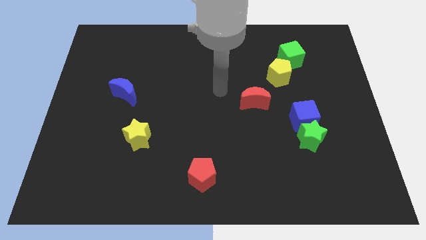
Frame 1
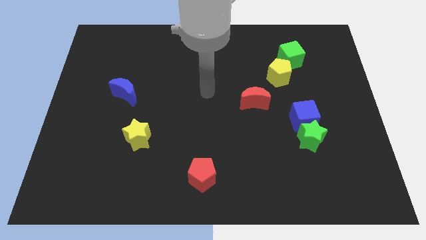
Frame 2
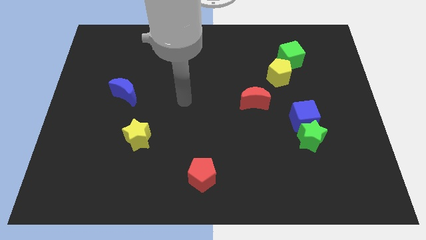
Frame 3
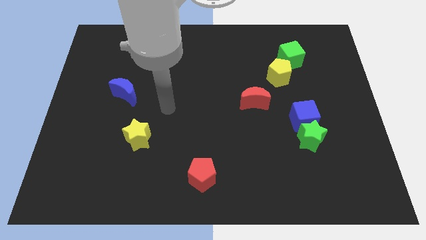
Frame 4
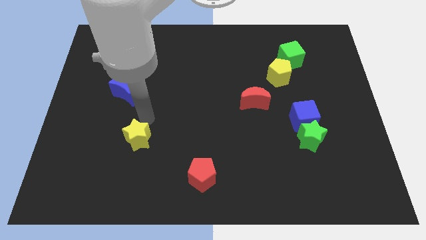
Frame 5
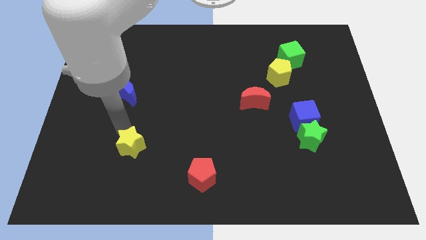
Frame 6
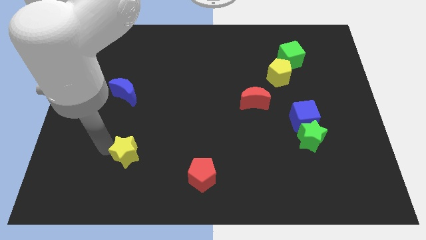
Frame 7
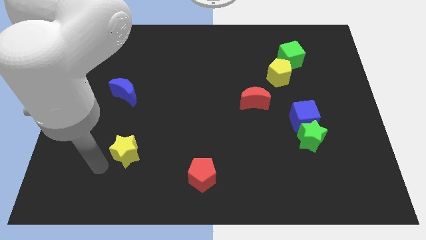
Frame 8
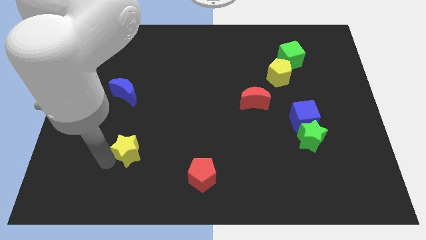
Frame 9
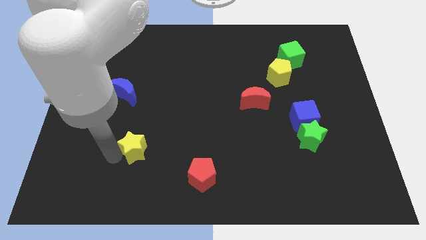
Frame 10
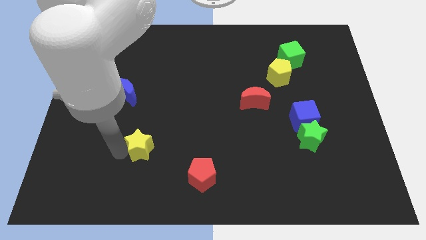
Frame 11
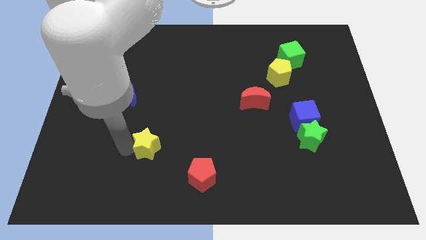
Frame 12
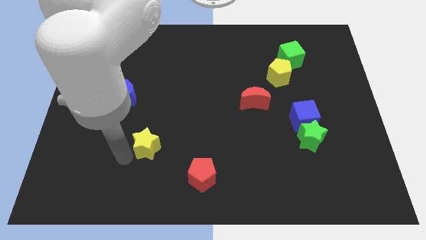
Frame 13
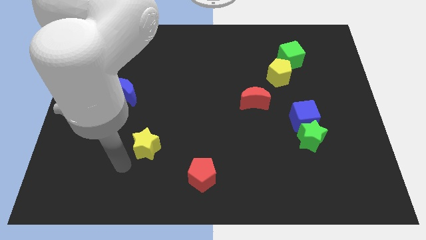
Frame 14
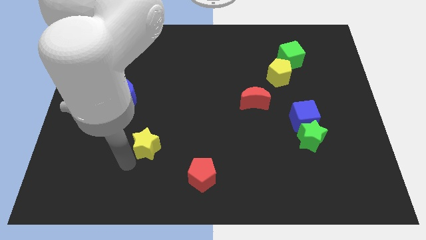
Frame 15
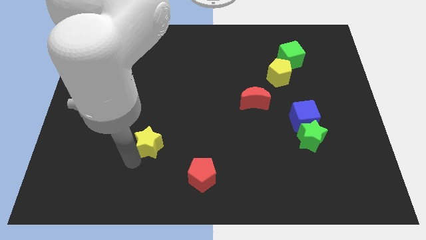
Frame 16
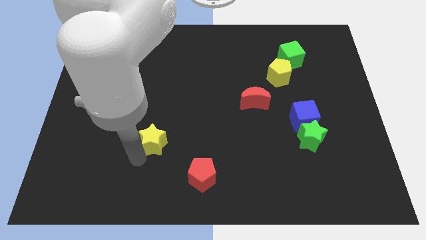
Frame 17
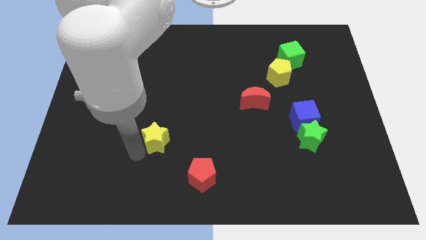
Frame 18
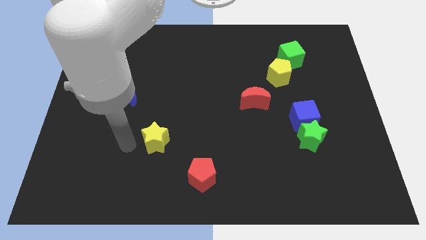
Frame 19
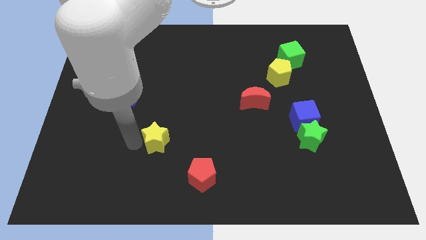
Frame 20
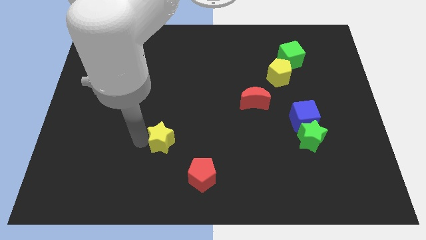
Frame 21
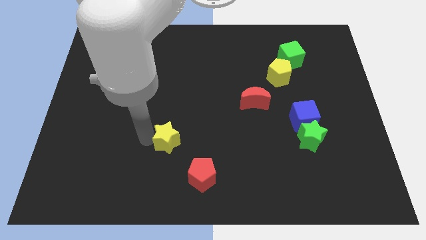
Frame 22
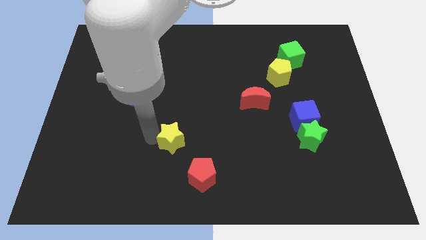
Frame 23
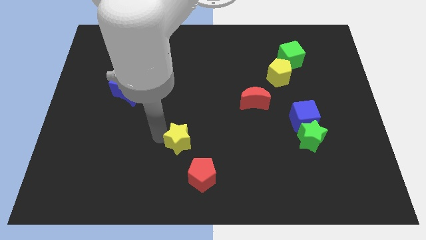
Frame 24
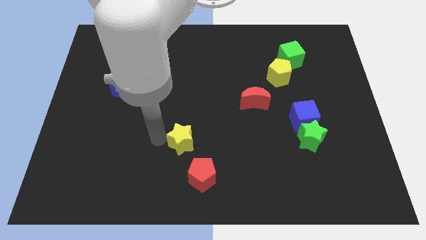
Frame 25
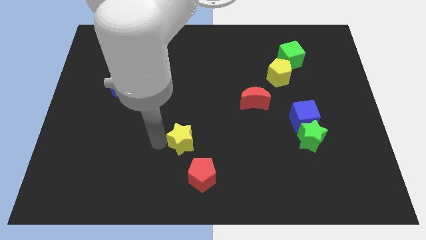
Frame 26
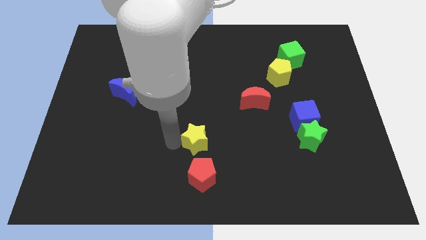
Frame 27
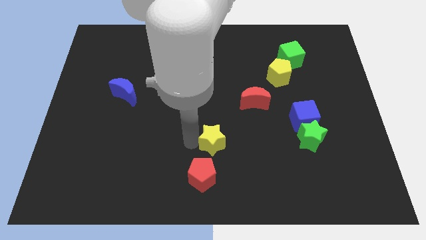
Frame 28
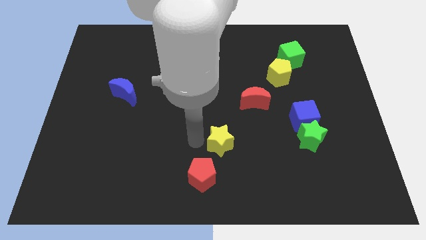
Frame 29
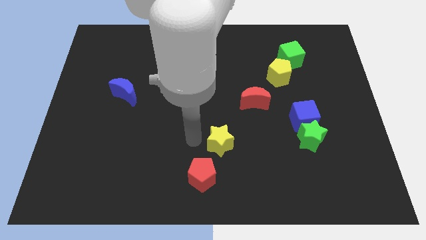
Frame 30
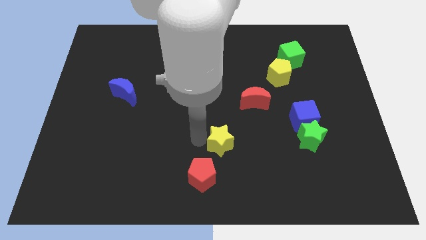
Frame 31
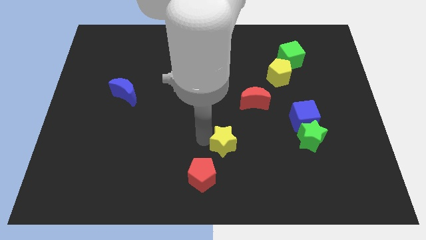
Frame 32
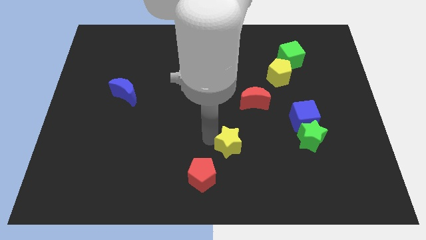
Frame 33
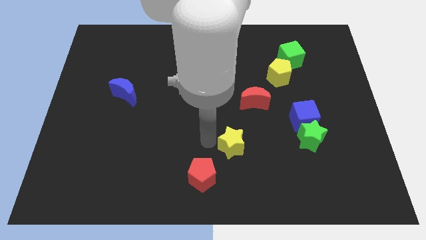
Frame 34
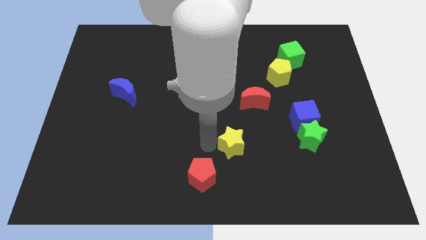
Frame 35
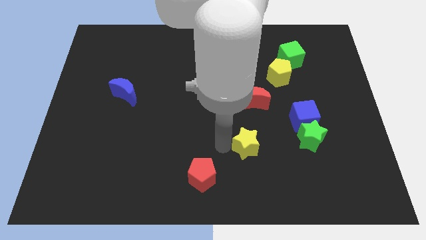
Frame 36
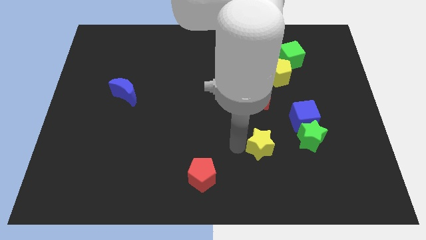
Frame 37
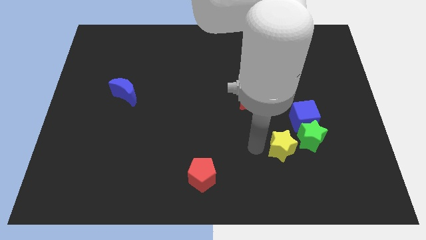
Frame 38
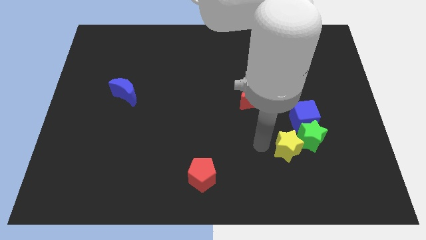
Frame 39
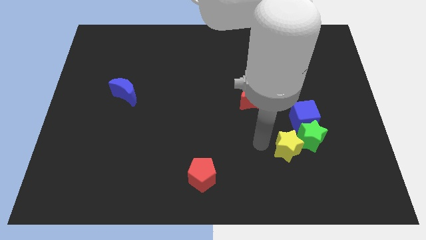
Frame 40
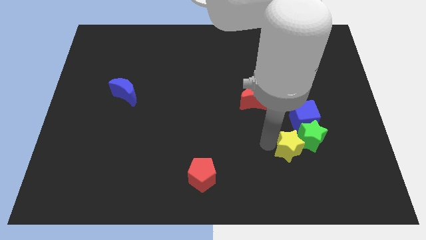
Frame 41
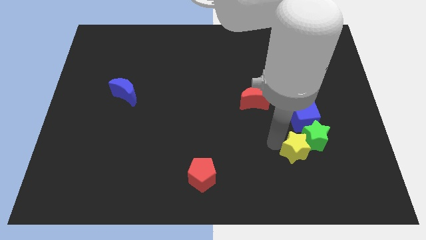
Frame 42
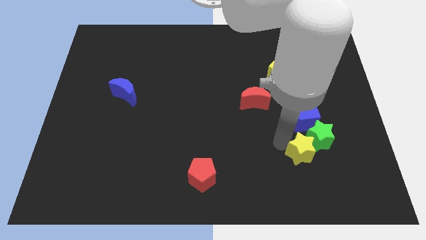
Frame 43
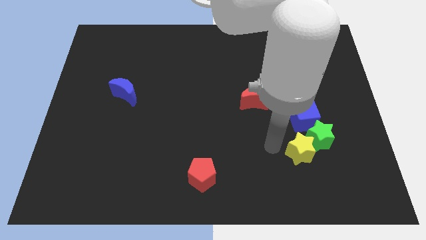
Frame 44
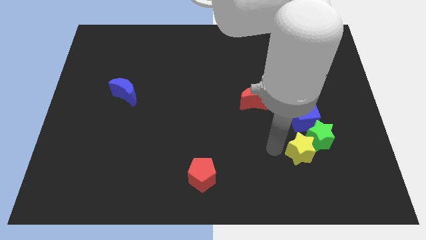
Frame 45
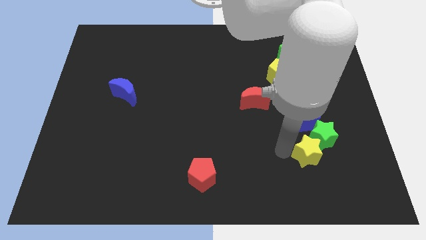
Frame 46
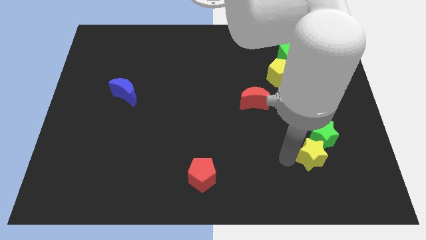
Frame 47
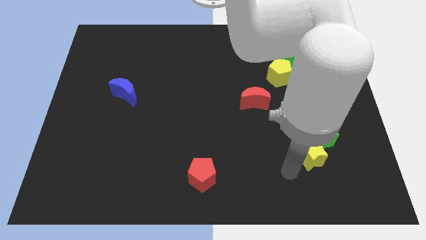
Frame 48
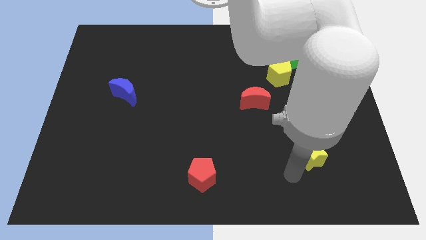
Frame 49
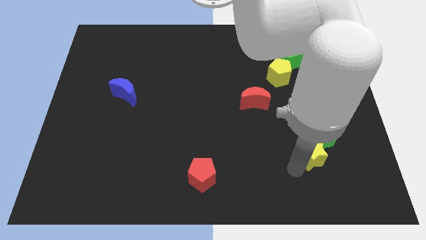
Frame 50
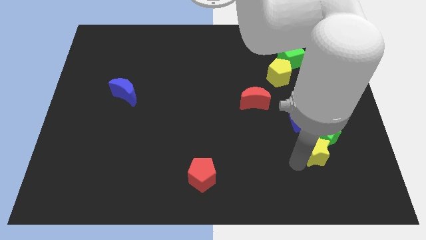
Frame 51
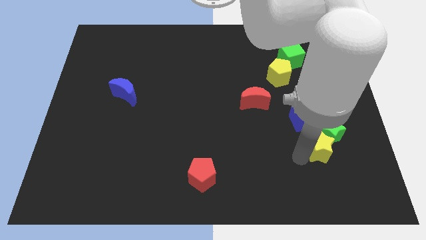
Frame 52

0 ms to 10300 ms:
push the yellow star to the bottom right of the blue cube

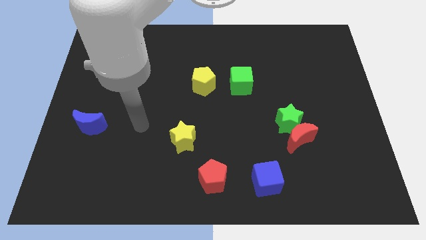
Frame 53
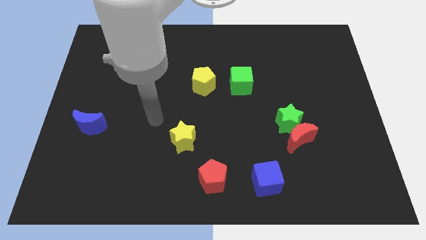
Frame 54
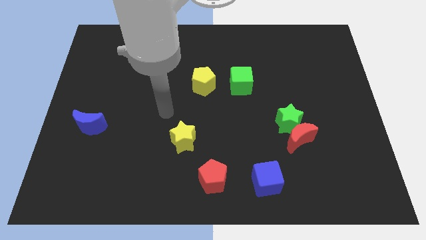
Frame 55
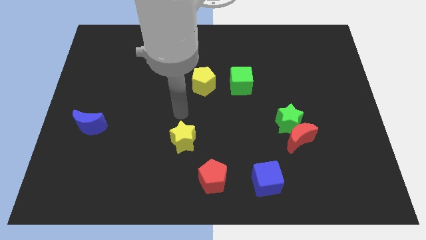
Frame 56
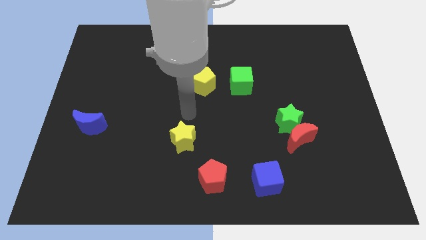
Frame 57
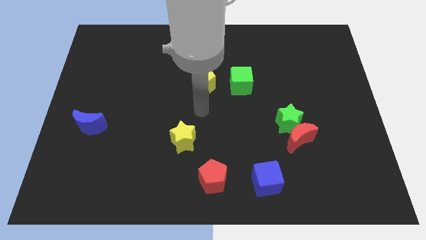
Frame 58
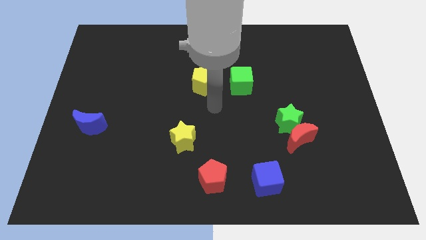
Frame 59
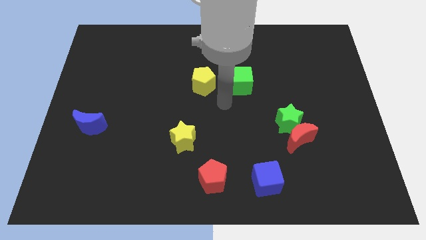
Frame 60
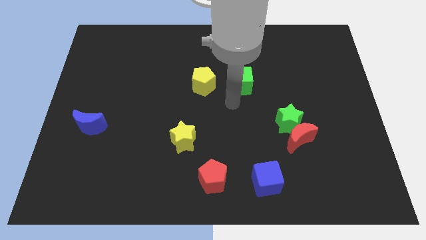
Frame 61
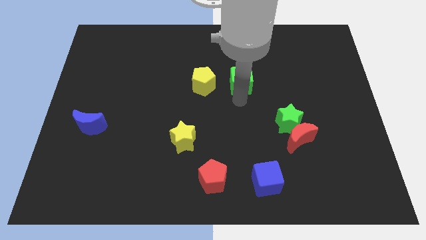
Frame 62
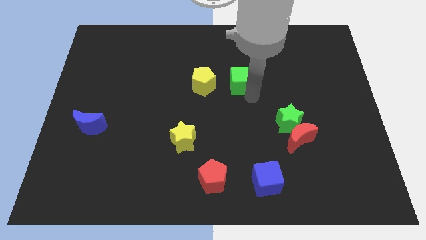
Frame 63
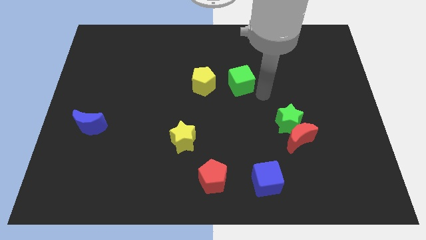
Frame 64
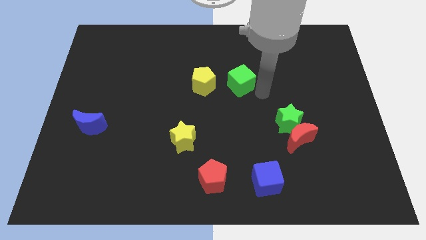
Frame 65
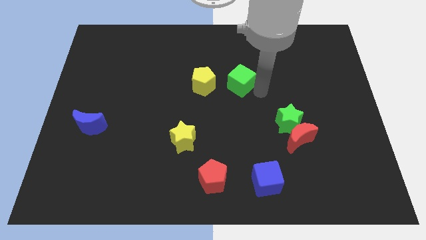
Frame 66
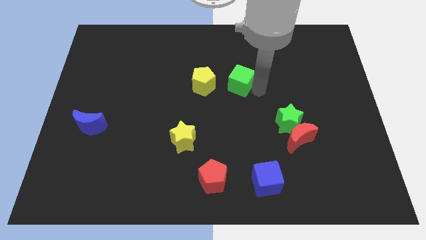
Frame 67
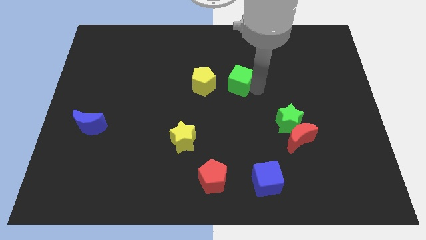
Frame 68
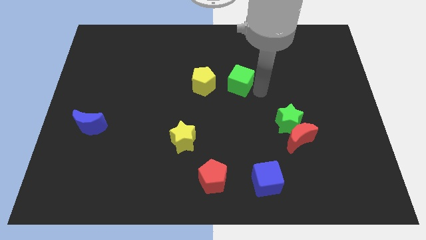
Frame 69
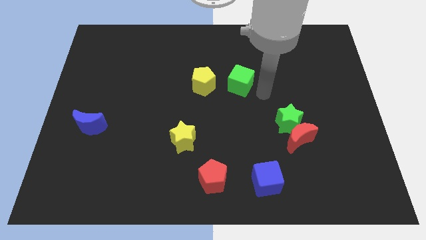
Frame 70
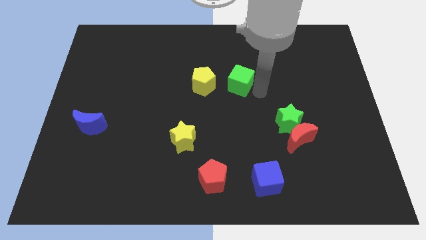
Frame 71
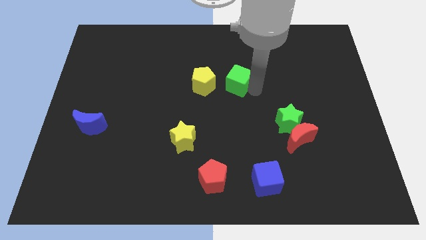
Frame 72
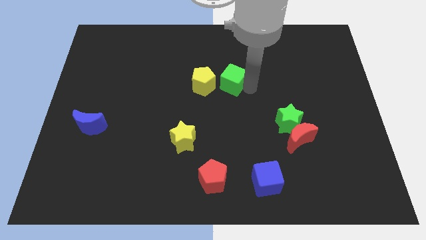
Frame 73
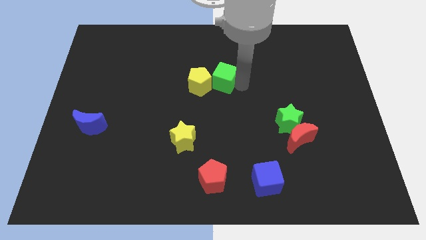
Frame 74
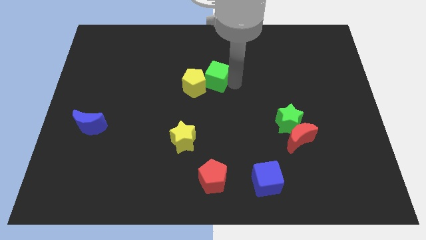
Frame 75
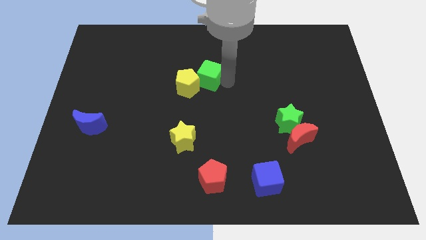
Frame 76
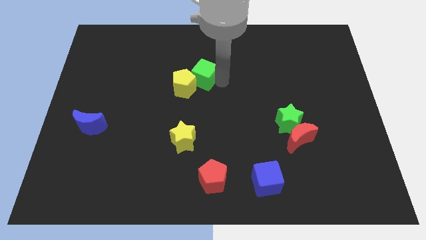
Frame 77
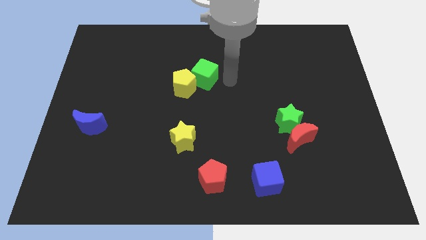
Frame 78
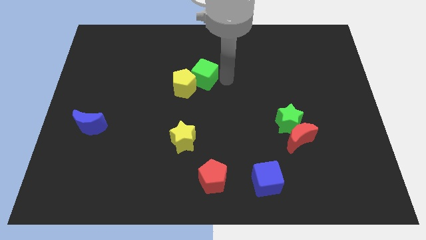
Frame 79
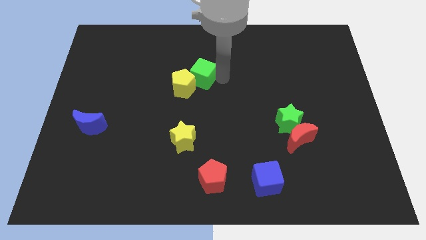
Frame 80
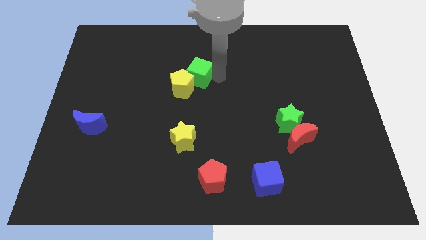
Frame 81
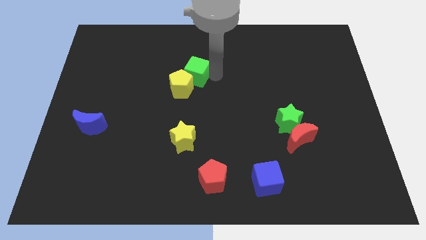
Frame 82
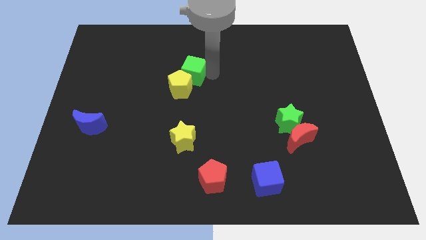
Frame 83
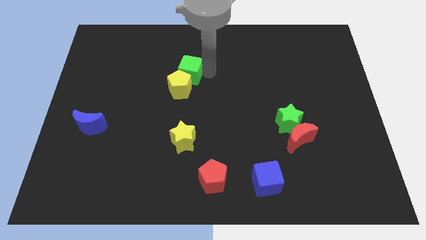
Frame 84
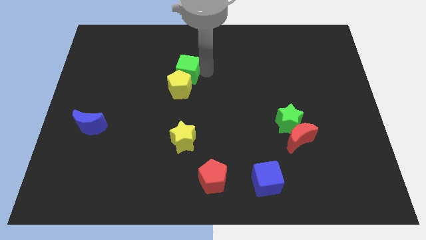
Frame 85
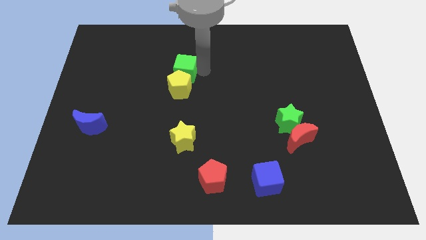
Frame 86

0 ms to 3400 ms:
put the green cube to the top left side of the yellow pentagon

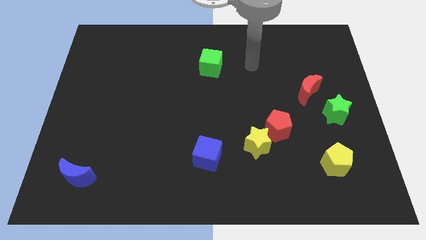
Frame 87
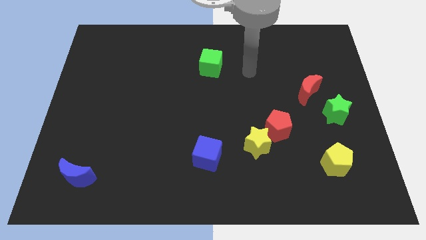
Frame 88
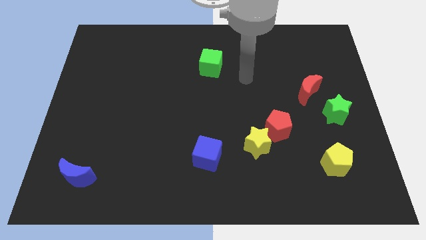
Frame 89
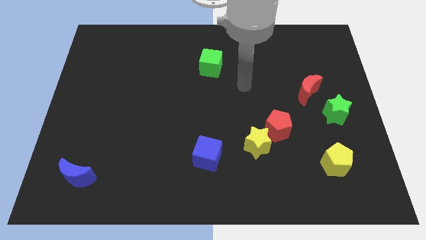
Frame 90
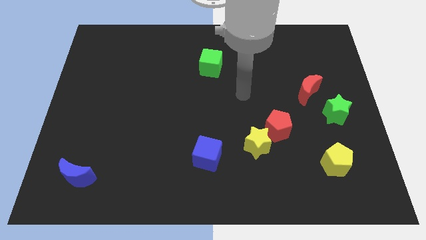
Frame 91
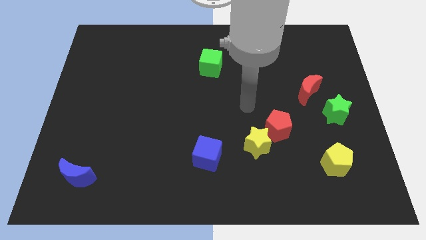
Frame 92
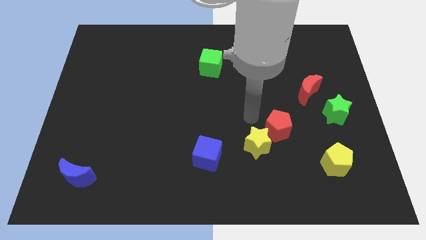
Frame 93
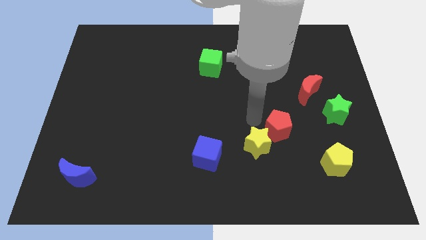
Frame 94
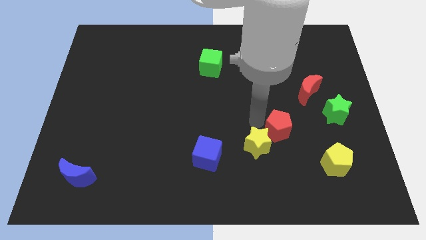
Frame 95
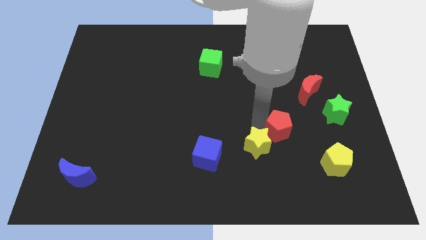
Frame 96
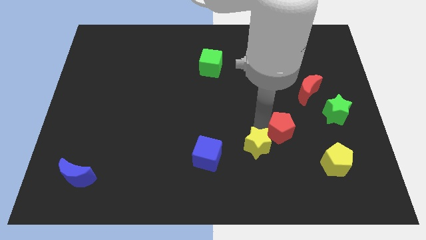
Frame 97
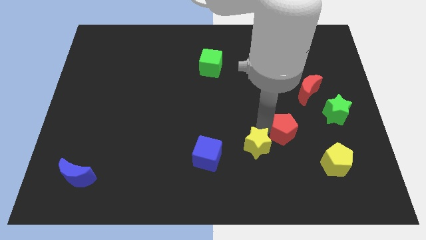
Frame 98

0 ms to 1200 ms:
move the red pentagon diagonally up and to the left of the yellow pentagon
